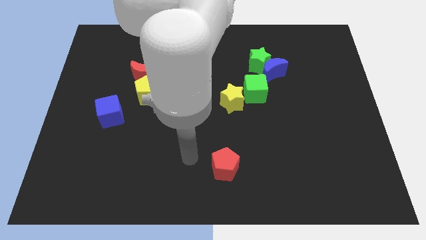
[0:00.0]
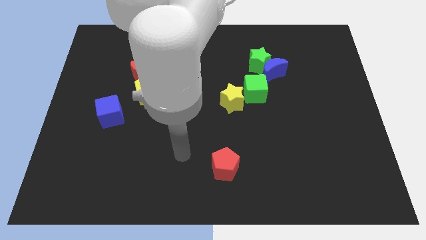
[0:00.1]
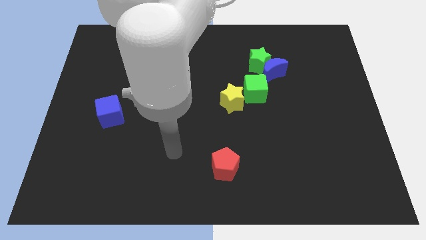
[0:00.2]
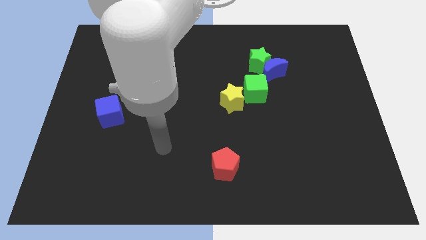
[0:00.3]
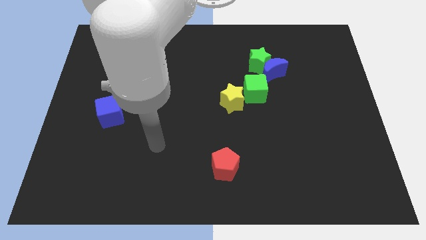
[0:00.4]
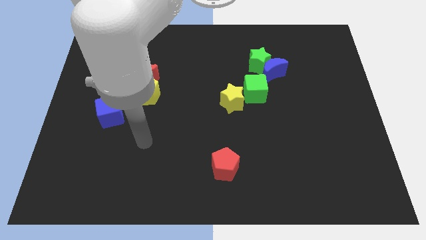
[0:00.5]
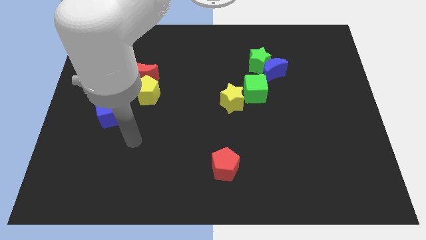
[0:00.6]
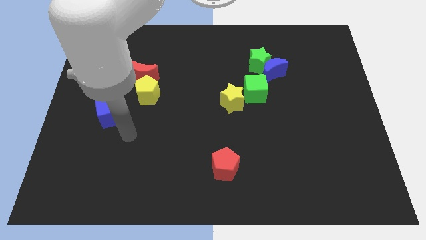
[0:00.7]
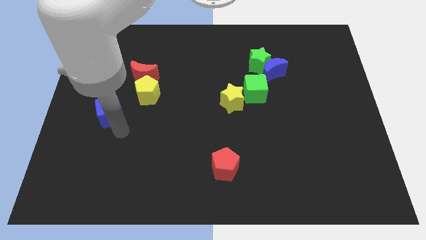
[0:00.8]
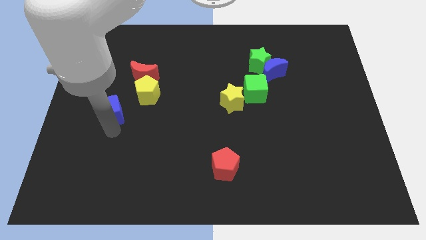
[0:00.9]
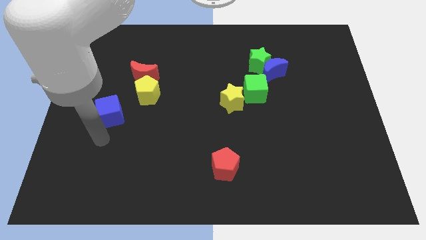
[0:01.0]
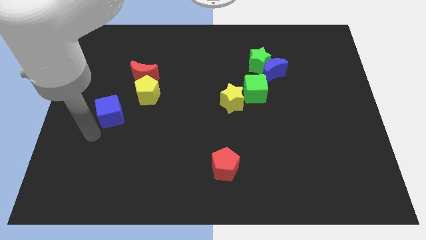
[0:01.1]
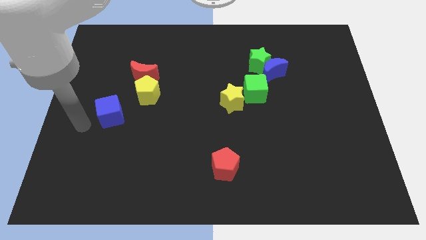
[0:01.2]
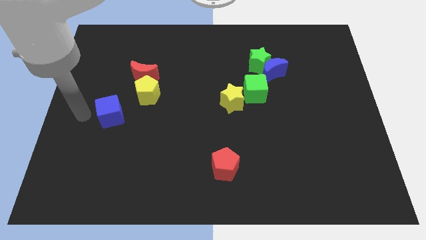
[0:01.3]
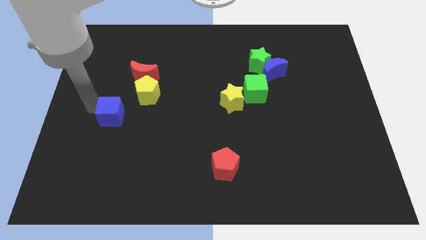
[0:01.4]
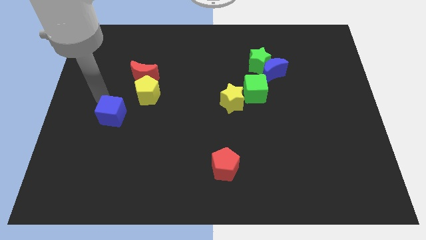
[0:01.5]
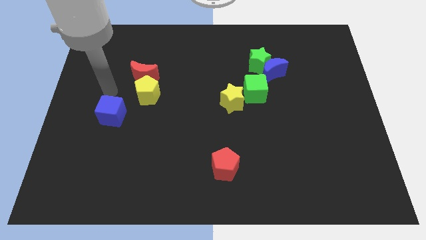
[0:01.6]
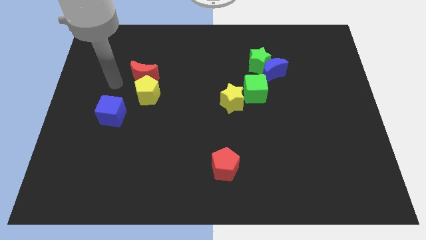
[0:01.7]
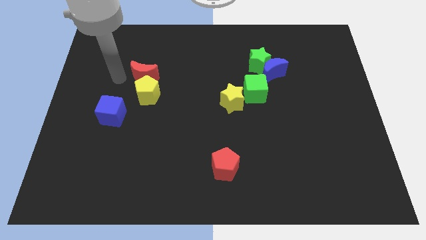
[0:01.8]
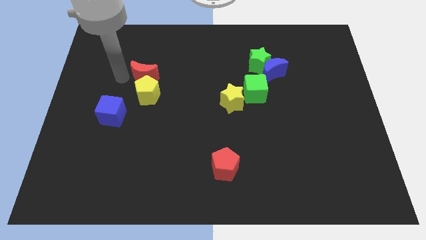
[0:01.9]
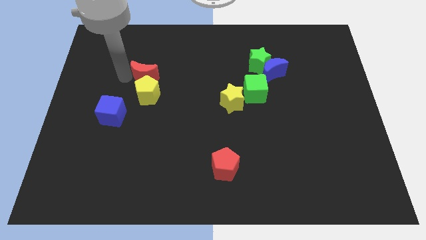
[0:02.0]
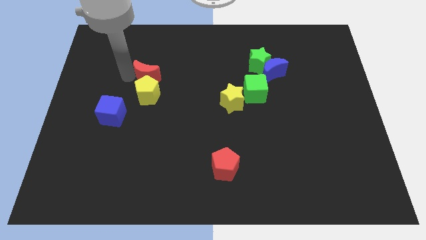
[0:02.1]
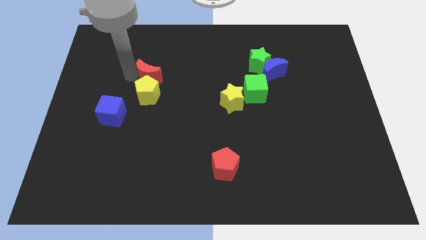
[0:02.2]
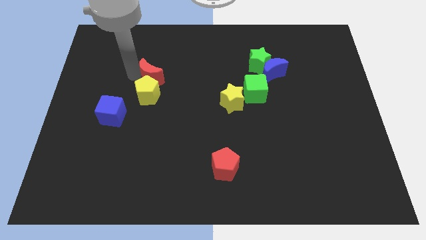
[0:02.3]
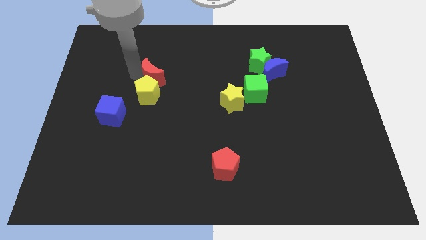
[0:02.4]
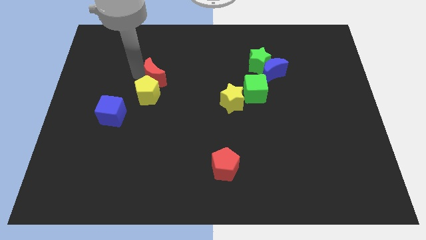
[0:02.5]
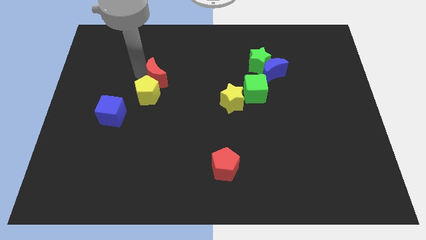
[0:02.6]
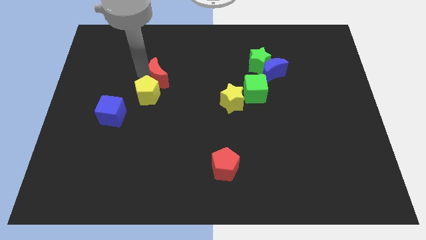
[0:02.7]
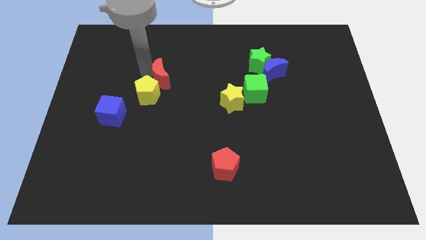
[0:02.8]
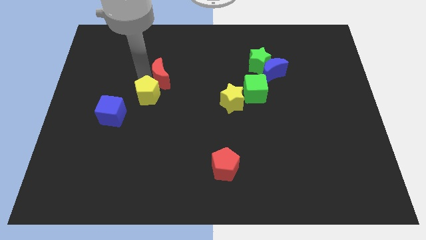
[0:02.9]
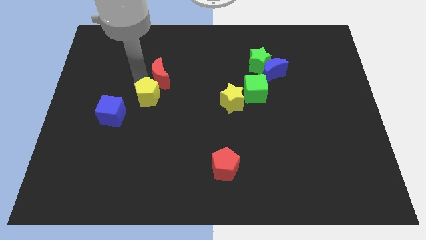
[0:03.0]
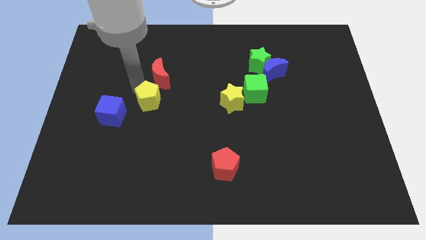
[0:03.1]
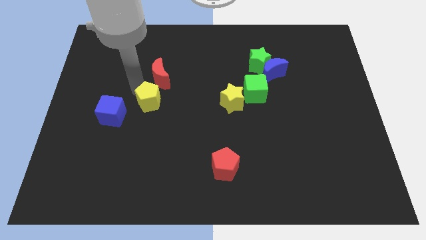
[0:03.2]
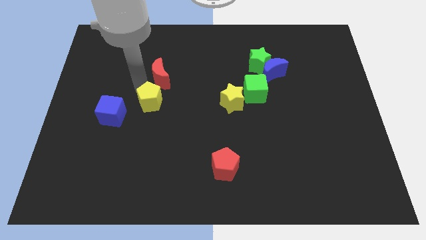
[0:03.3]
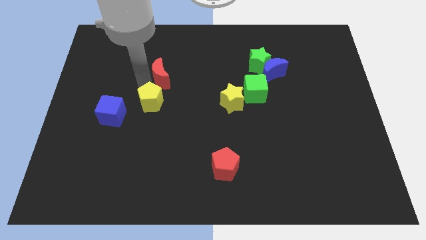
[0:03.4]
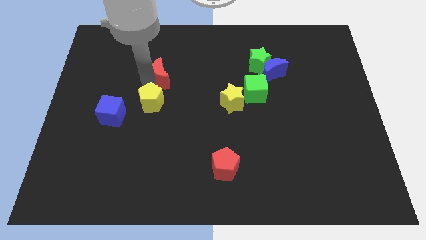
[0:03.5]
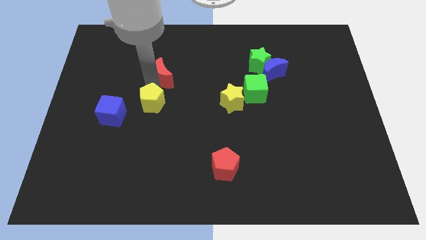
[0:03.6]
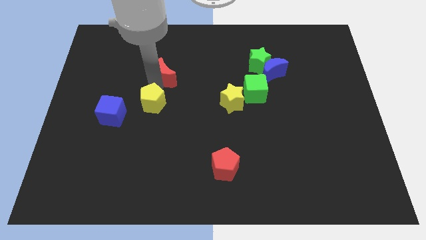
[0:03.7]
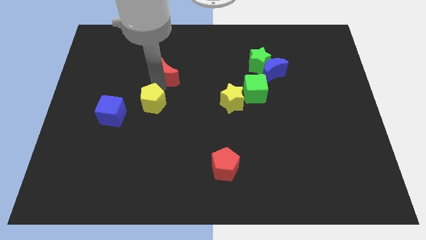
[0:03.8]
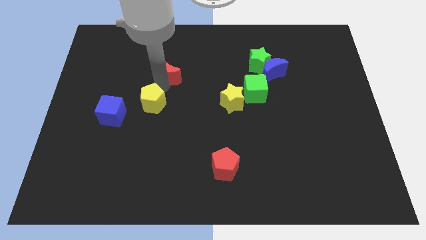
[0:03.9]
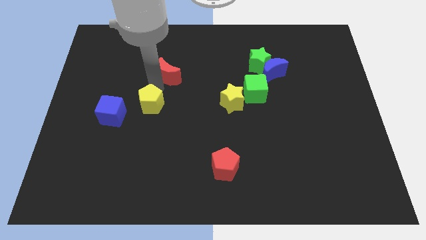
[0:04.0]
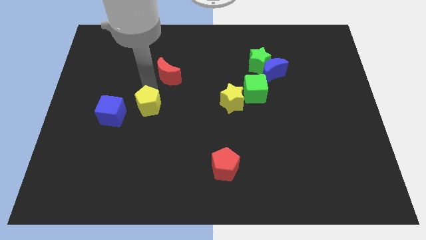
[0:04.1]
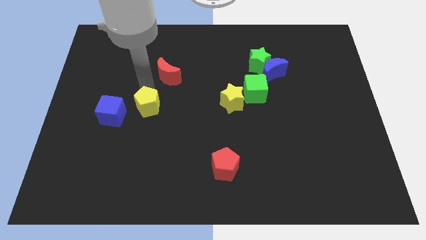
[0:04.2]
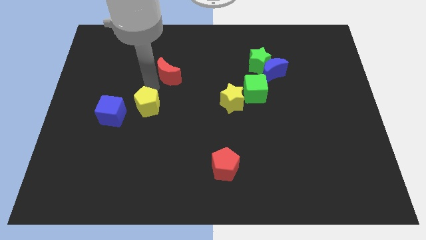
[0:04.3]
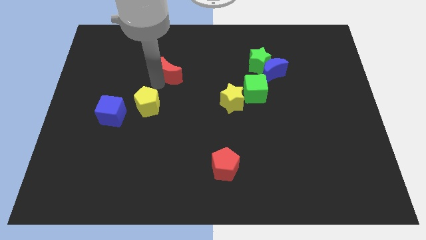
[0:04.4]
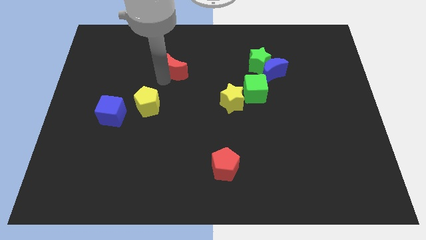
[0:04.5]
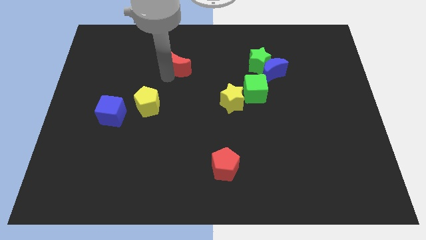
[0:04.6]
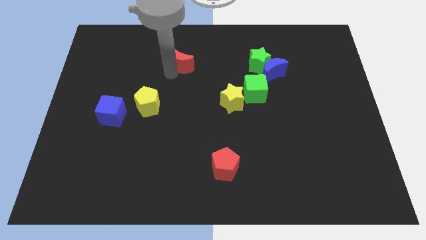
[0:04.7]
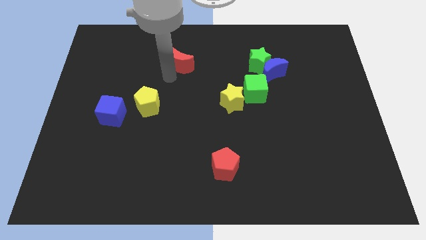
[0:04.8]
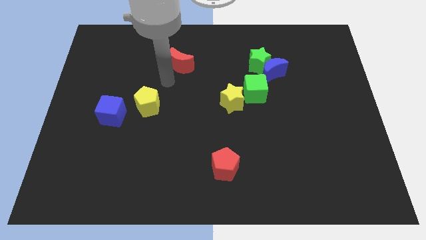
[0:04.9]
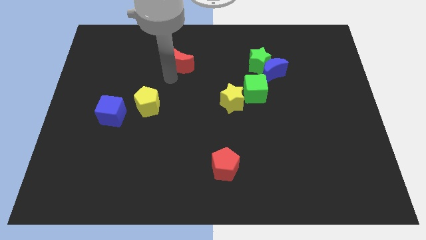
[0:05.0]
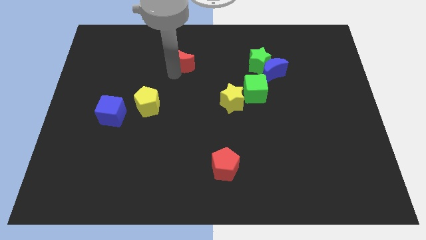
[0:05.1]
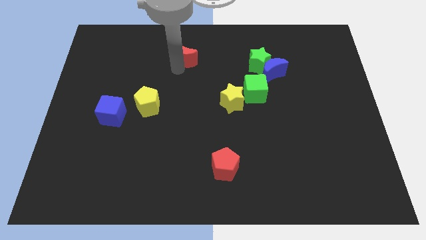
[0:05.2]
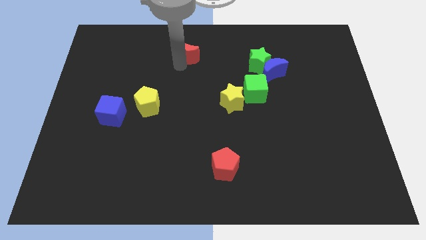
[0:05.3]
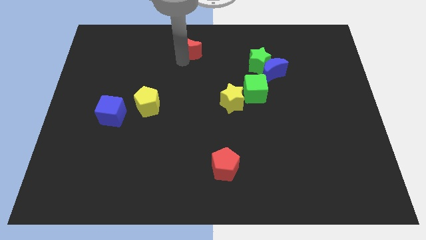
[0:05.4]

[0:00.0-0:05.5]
slide the red moon to the top
